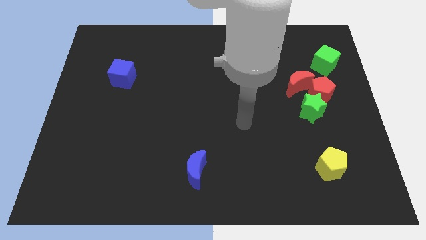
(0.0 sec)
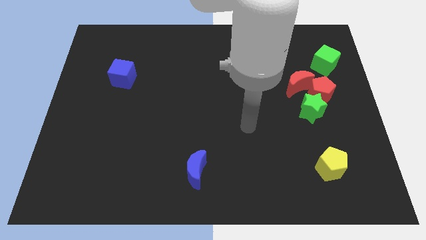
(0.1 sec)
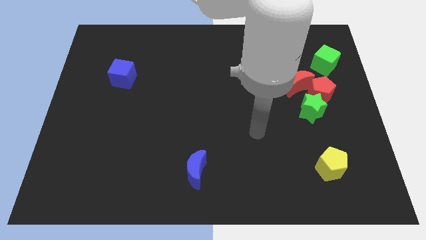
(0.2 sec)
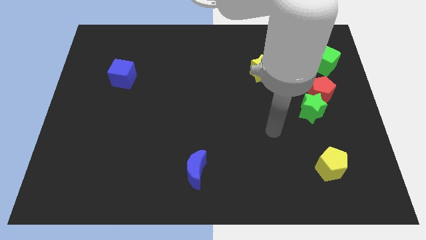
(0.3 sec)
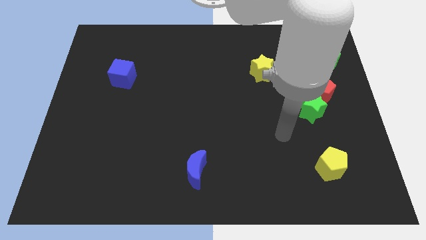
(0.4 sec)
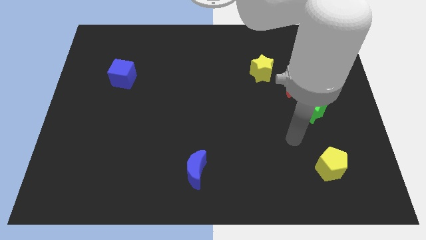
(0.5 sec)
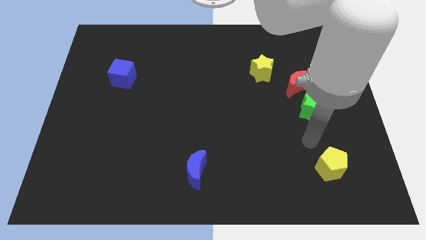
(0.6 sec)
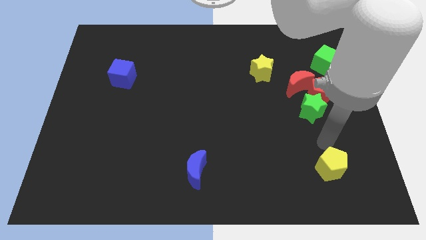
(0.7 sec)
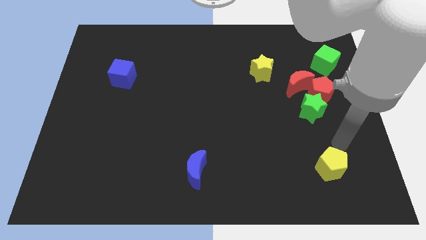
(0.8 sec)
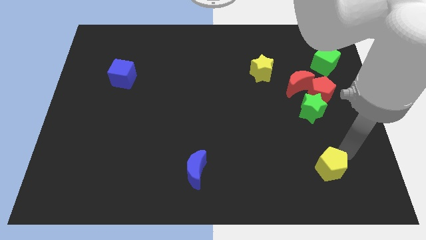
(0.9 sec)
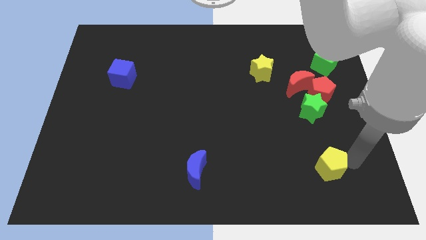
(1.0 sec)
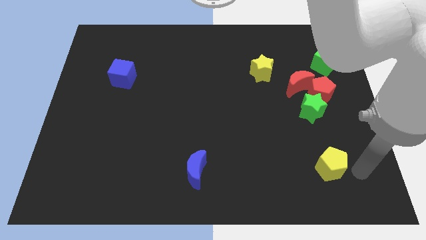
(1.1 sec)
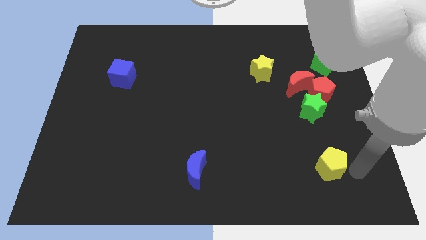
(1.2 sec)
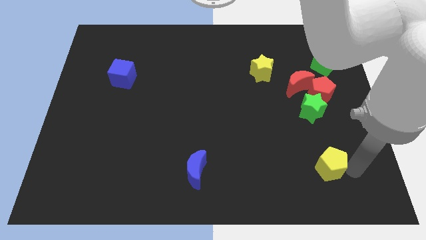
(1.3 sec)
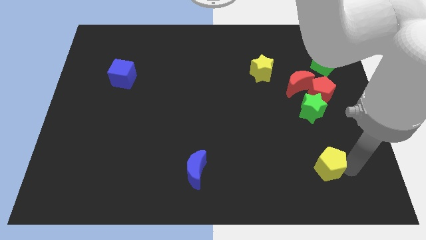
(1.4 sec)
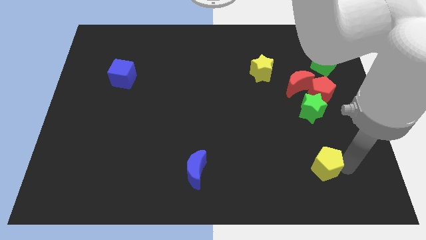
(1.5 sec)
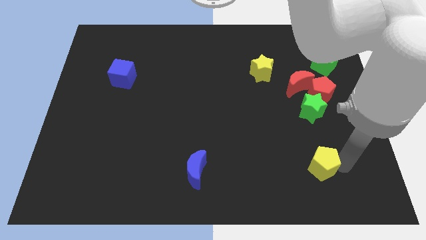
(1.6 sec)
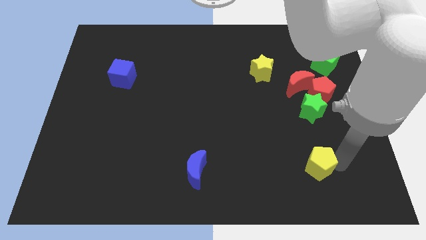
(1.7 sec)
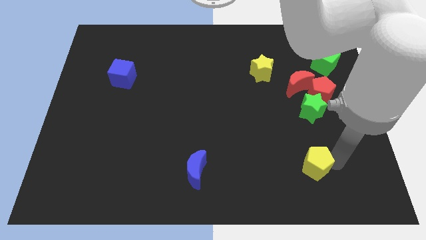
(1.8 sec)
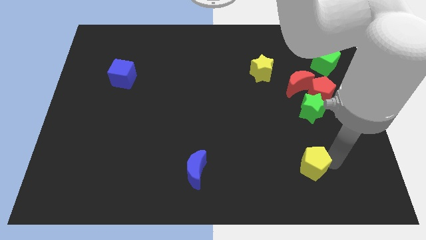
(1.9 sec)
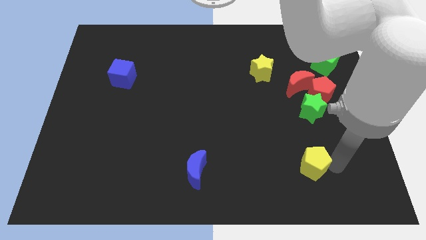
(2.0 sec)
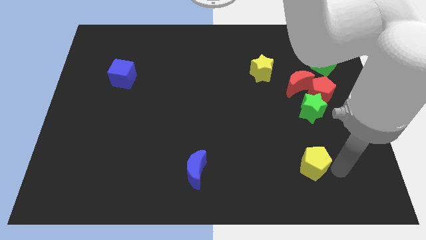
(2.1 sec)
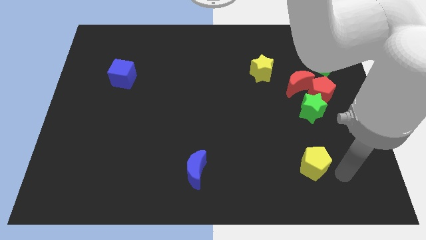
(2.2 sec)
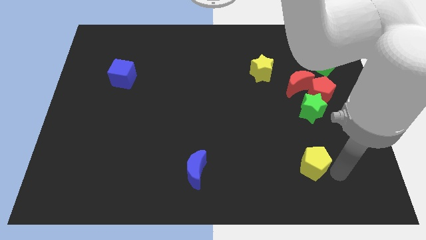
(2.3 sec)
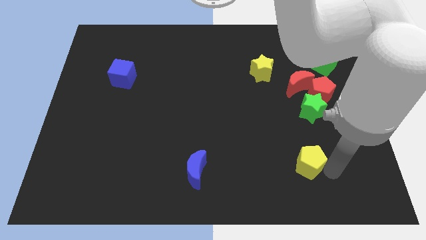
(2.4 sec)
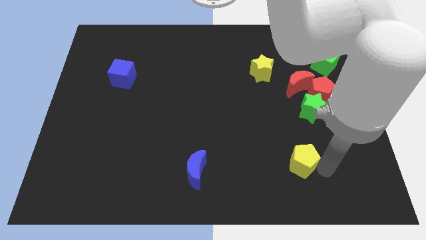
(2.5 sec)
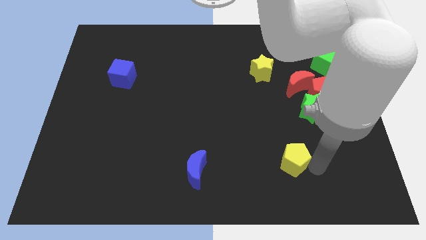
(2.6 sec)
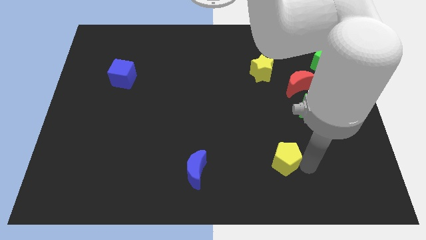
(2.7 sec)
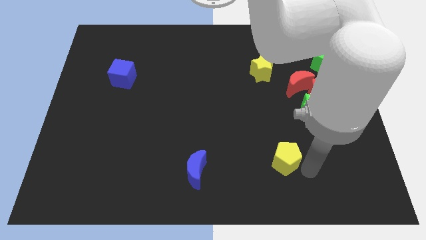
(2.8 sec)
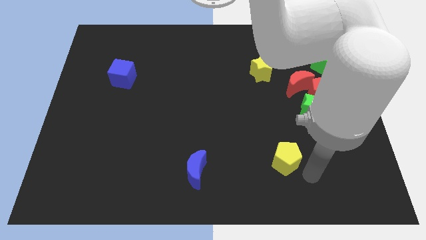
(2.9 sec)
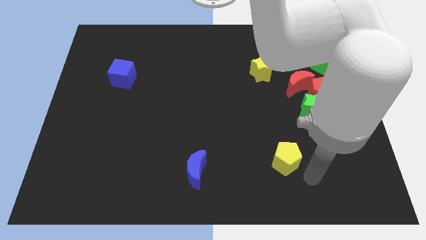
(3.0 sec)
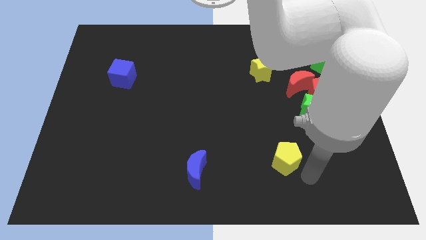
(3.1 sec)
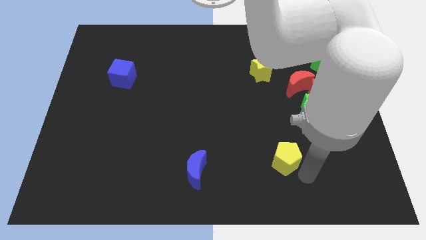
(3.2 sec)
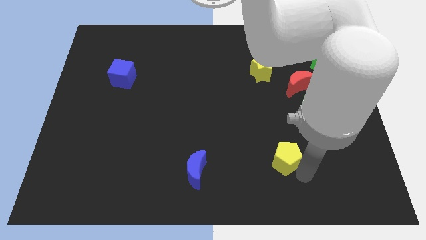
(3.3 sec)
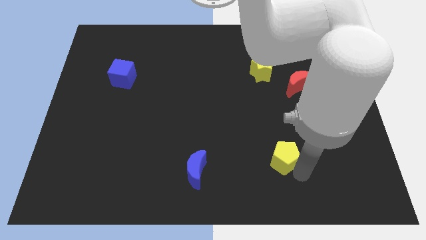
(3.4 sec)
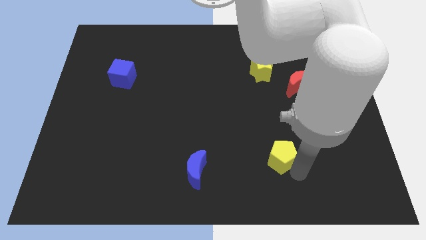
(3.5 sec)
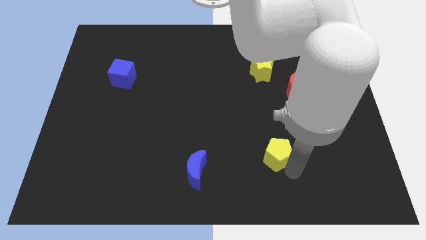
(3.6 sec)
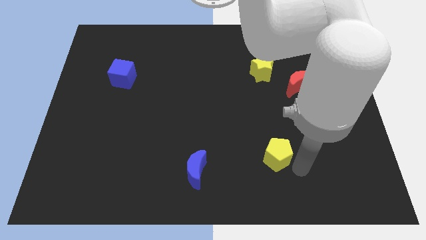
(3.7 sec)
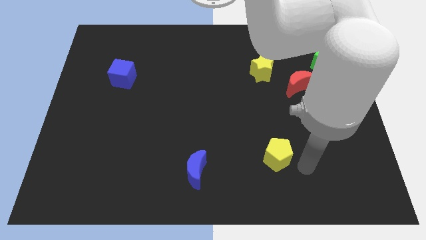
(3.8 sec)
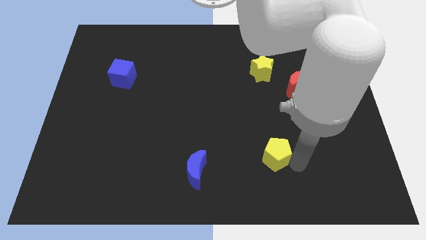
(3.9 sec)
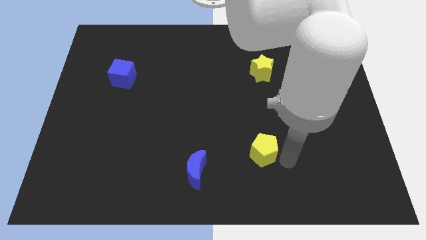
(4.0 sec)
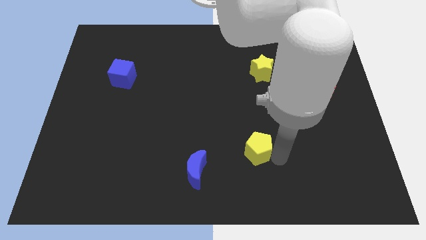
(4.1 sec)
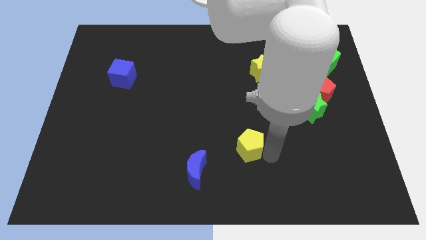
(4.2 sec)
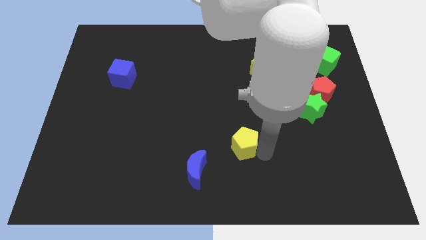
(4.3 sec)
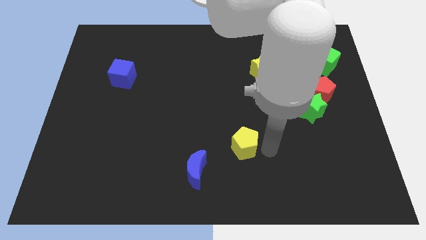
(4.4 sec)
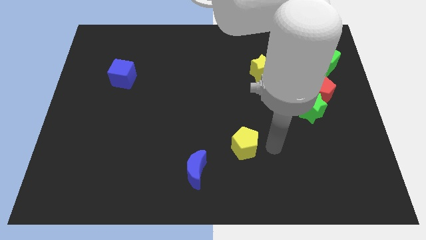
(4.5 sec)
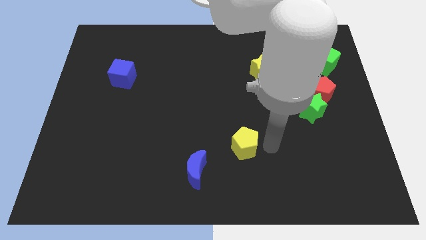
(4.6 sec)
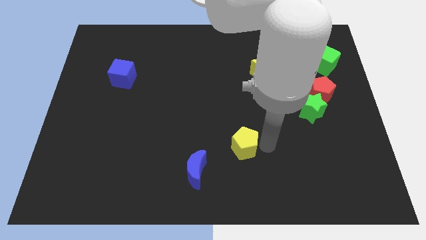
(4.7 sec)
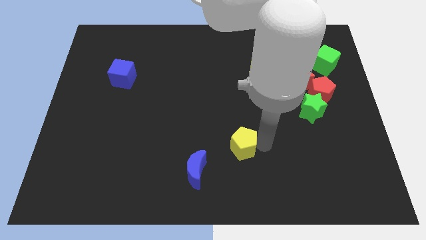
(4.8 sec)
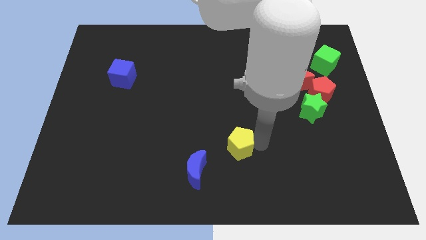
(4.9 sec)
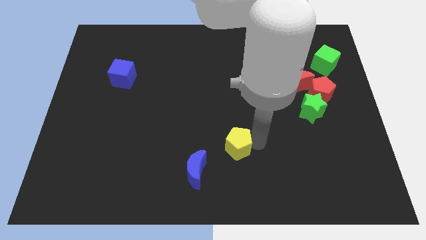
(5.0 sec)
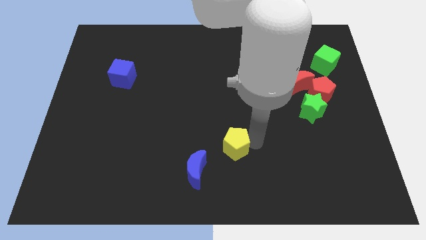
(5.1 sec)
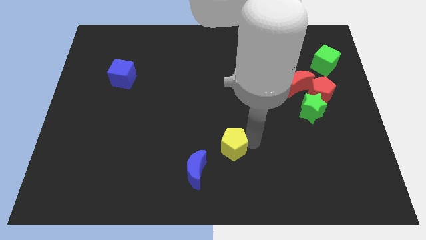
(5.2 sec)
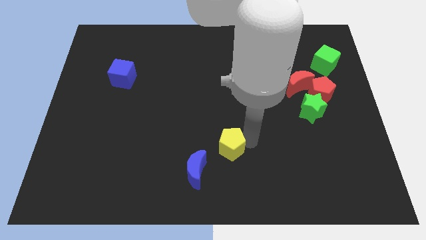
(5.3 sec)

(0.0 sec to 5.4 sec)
slide the yellow pentagon to the left

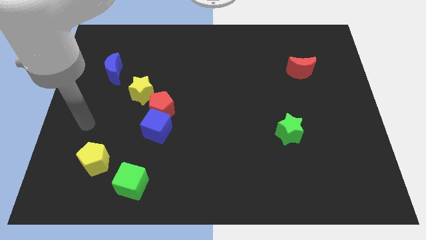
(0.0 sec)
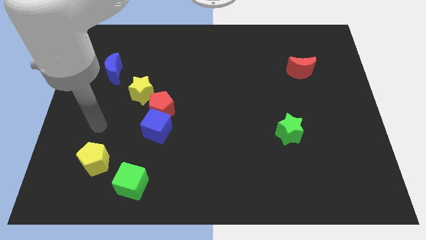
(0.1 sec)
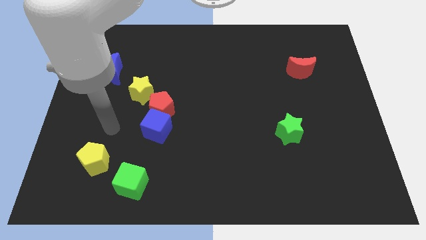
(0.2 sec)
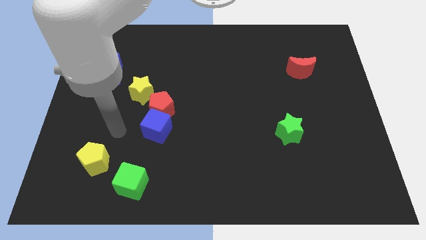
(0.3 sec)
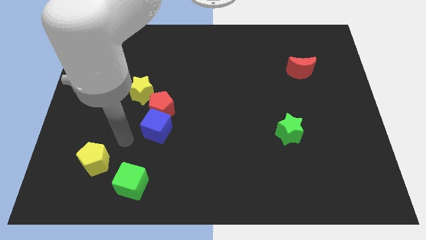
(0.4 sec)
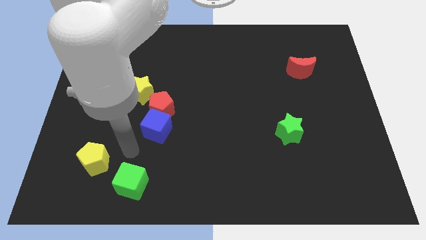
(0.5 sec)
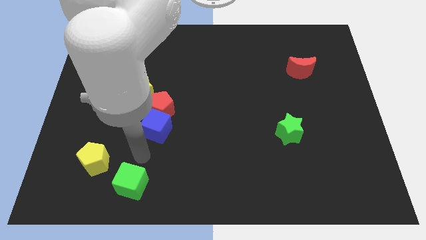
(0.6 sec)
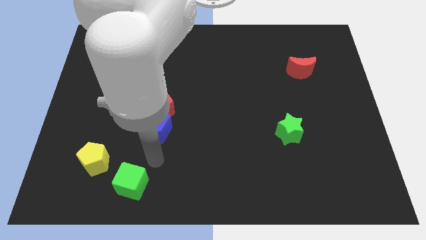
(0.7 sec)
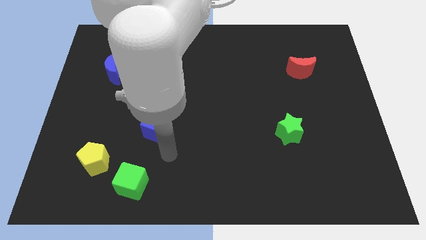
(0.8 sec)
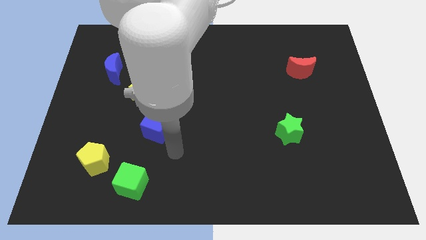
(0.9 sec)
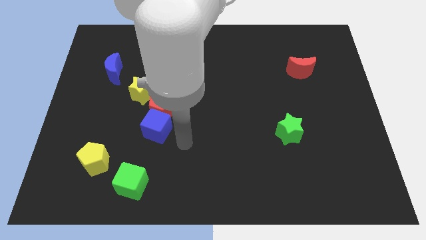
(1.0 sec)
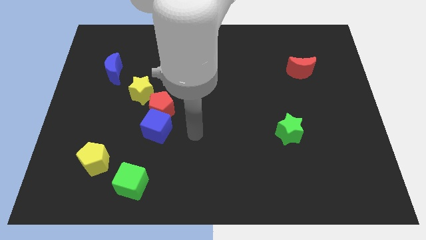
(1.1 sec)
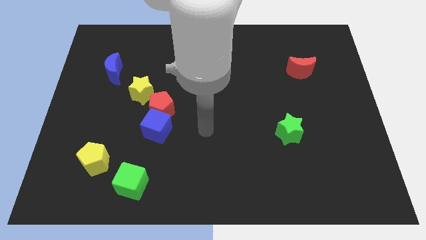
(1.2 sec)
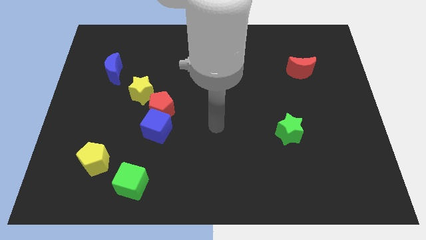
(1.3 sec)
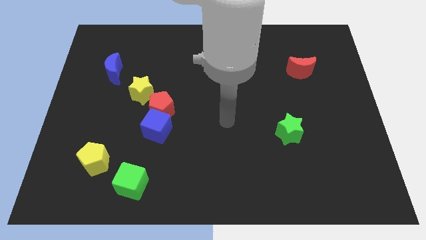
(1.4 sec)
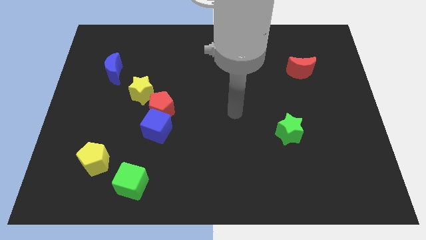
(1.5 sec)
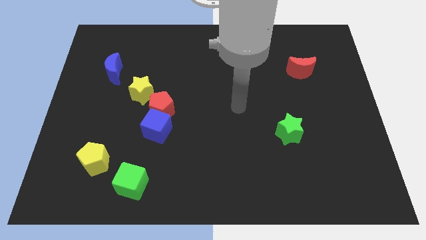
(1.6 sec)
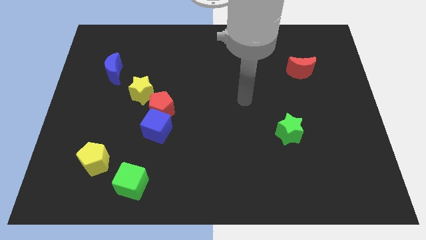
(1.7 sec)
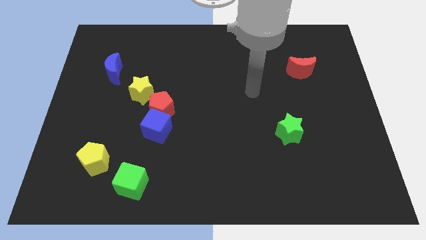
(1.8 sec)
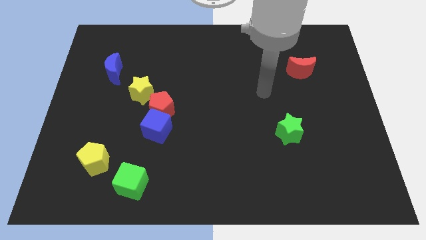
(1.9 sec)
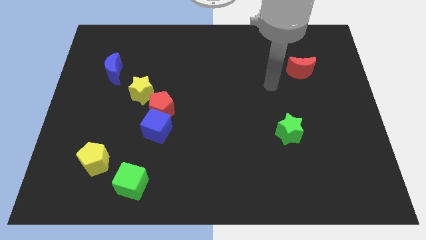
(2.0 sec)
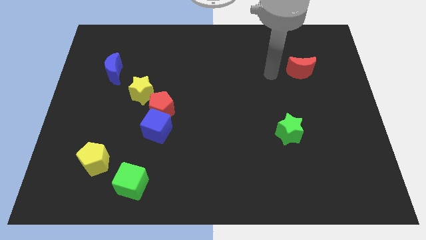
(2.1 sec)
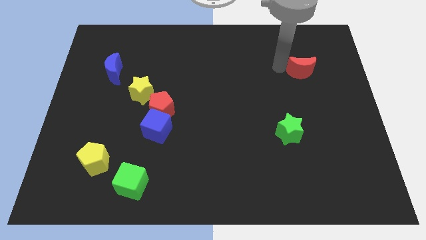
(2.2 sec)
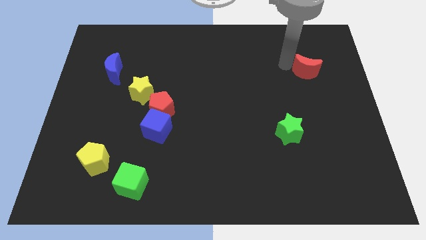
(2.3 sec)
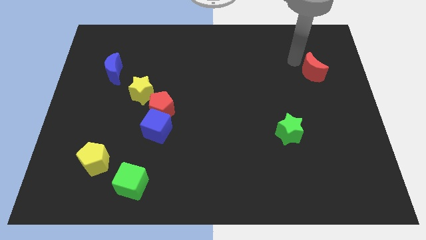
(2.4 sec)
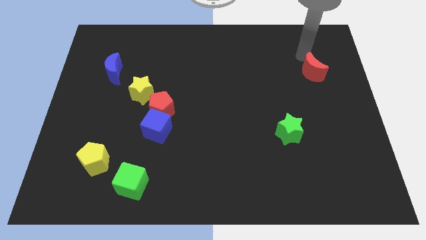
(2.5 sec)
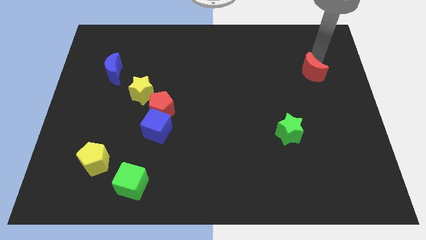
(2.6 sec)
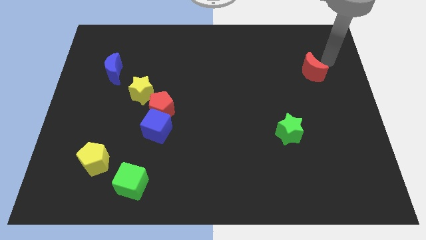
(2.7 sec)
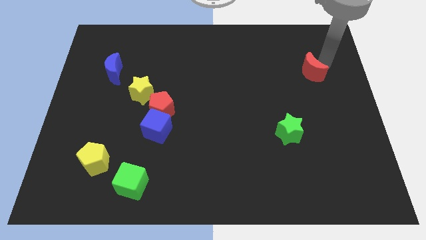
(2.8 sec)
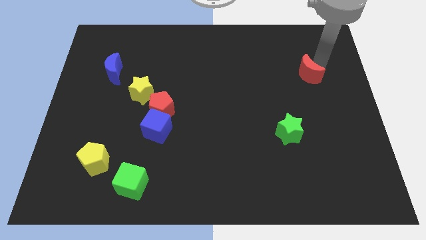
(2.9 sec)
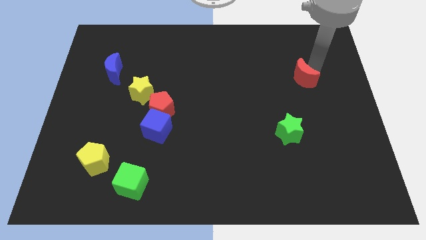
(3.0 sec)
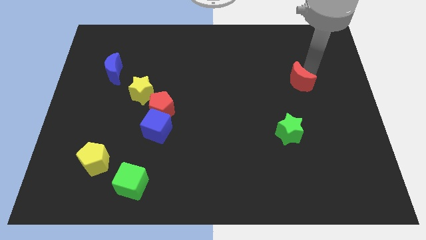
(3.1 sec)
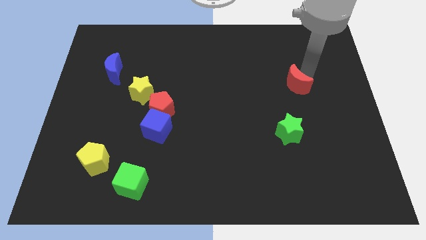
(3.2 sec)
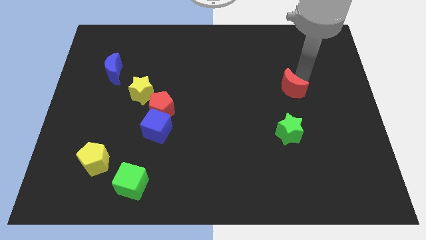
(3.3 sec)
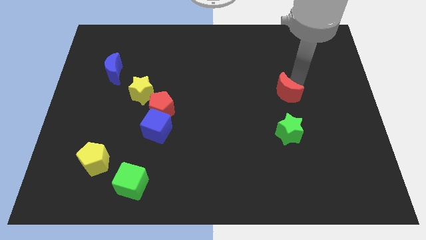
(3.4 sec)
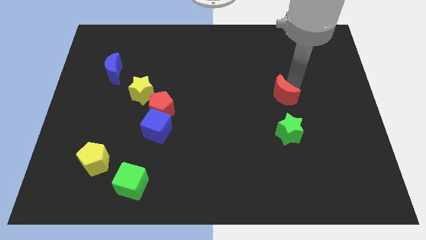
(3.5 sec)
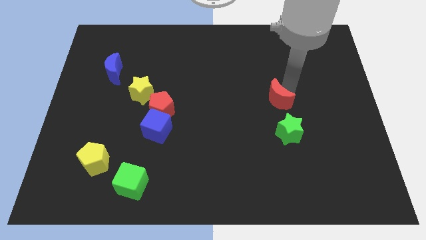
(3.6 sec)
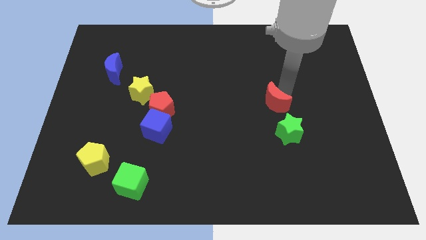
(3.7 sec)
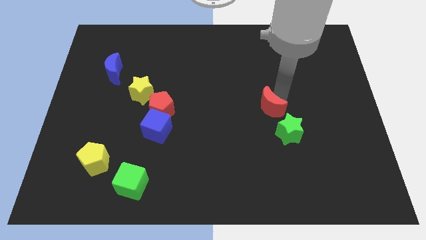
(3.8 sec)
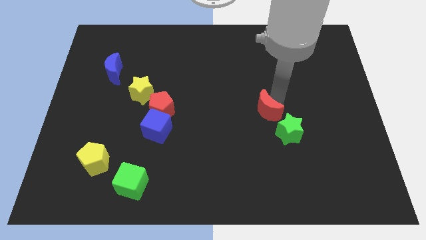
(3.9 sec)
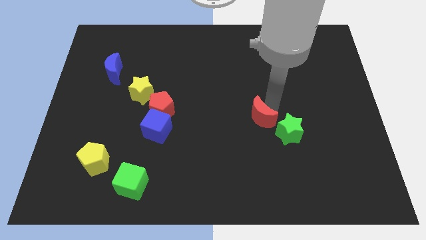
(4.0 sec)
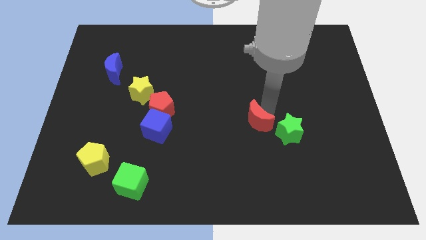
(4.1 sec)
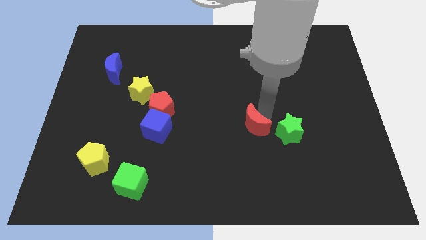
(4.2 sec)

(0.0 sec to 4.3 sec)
slide the red moon diagonally down and left
